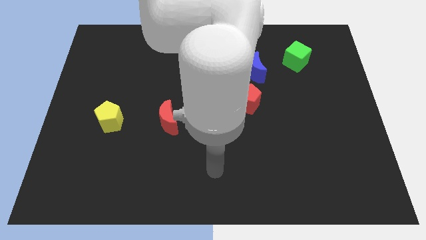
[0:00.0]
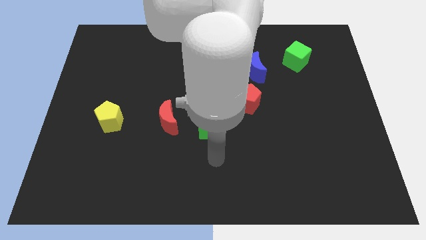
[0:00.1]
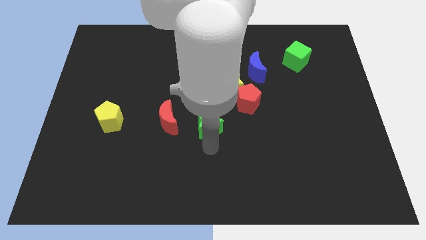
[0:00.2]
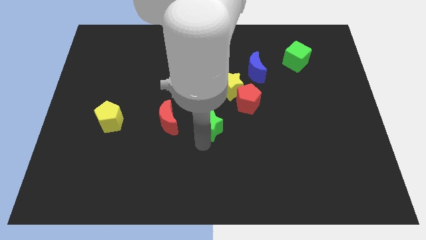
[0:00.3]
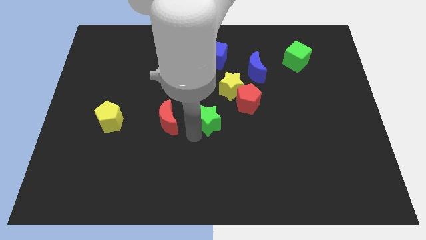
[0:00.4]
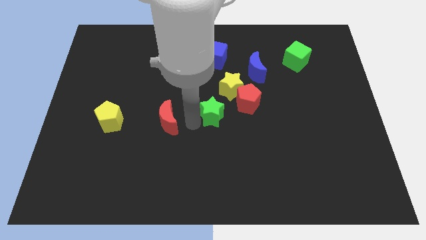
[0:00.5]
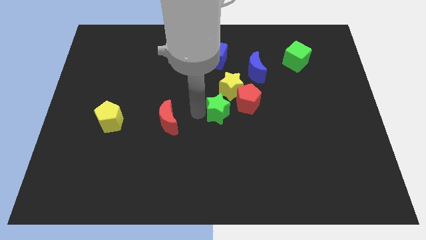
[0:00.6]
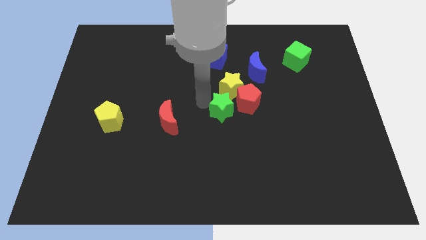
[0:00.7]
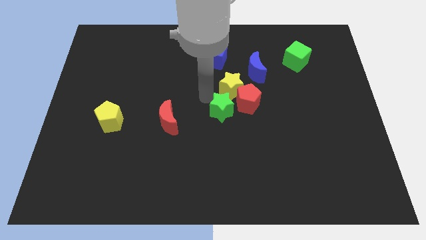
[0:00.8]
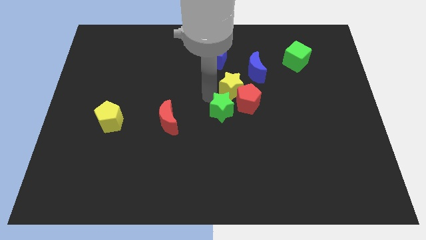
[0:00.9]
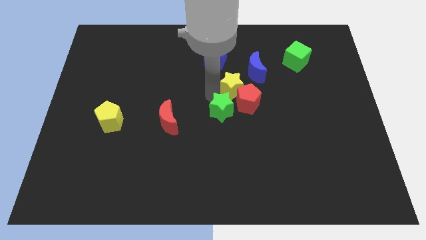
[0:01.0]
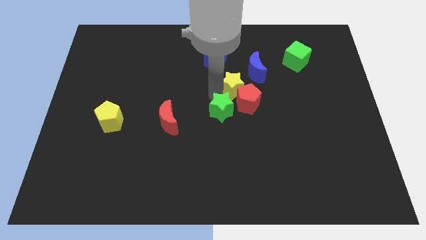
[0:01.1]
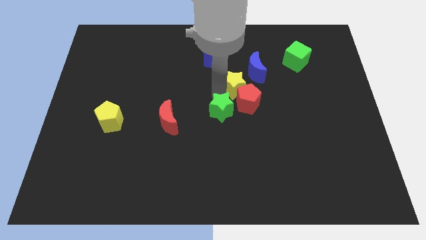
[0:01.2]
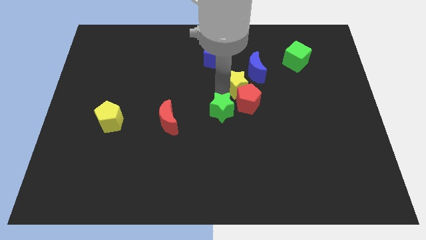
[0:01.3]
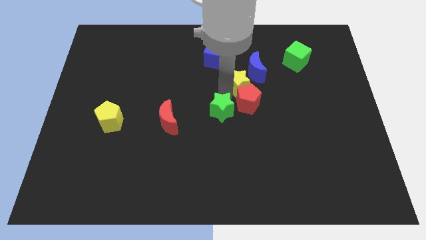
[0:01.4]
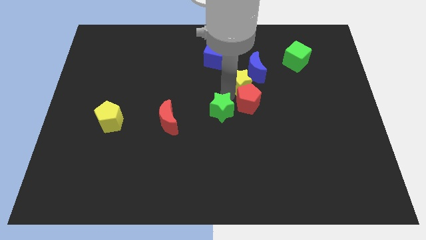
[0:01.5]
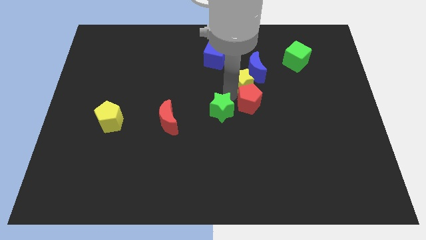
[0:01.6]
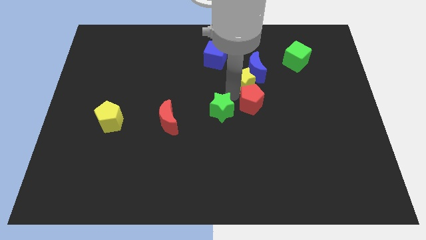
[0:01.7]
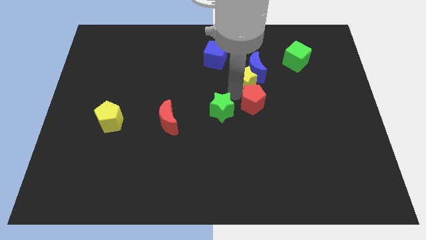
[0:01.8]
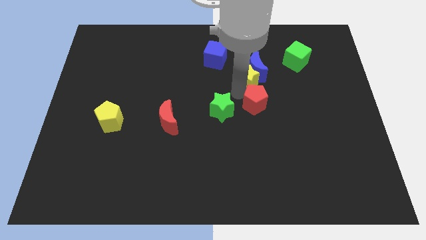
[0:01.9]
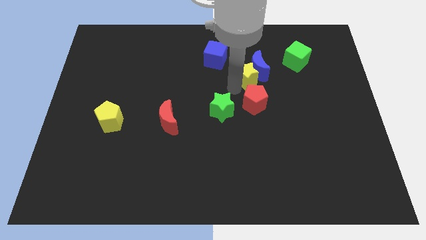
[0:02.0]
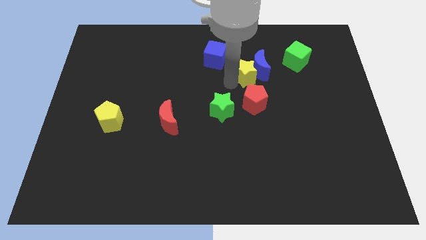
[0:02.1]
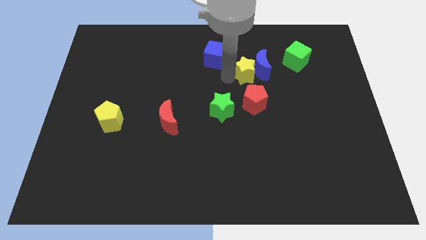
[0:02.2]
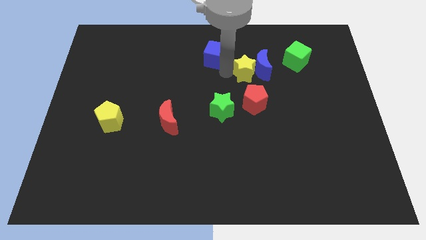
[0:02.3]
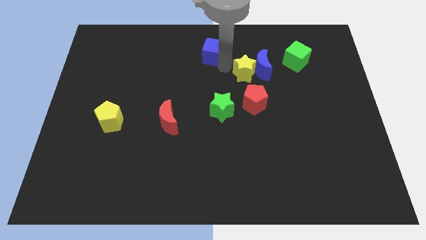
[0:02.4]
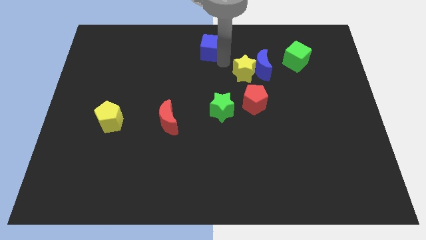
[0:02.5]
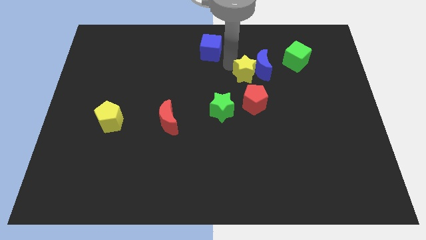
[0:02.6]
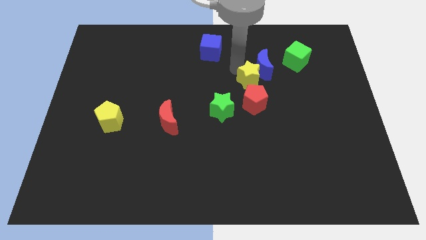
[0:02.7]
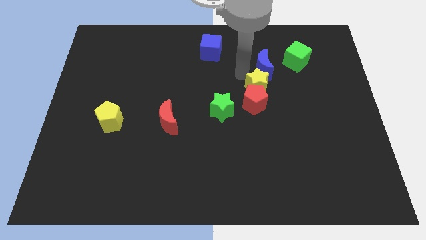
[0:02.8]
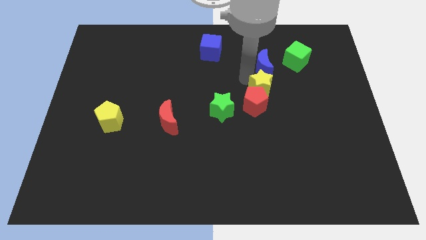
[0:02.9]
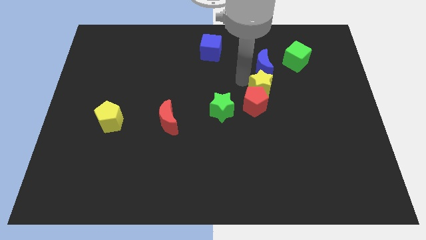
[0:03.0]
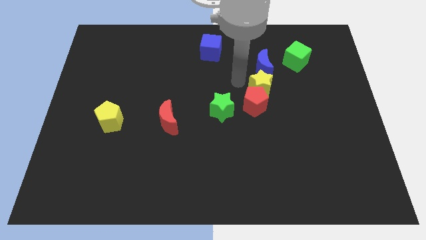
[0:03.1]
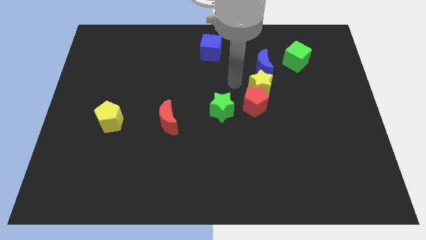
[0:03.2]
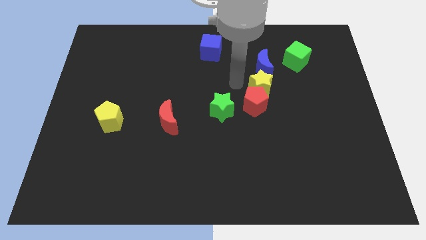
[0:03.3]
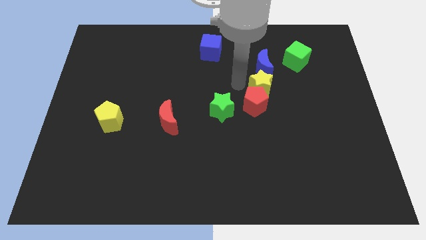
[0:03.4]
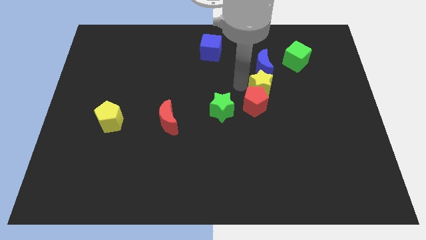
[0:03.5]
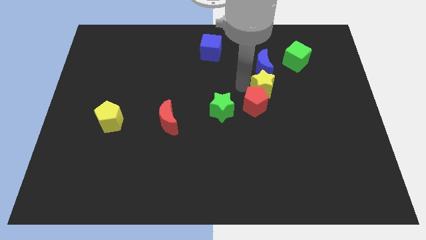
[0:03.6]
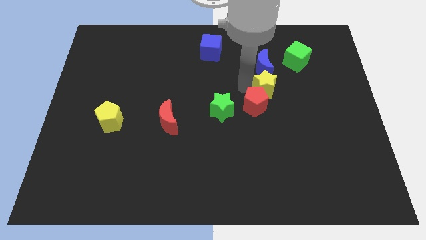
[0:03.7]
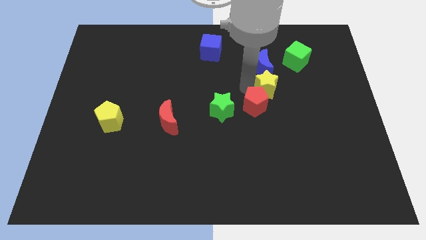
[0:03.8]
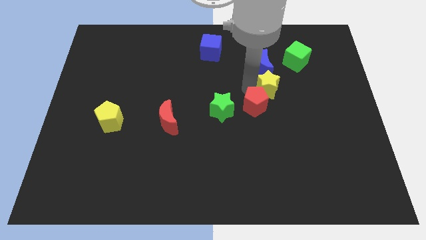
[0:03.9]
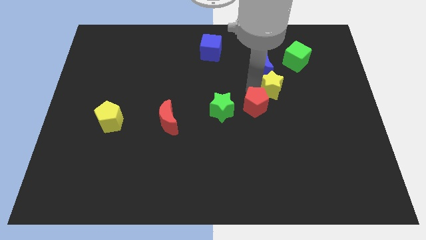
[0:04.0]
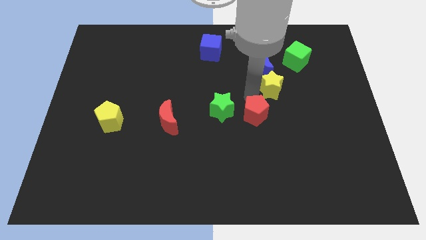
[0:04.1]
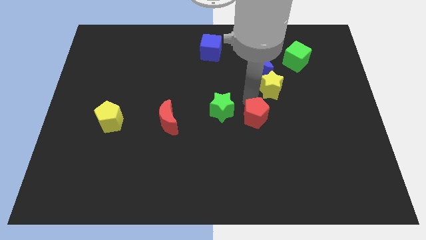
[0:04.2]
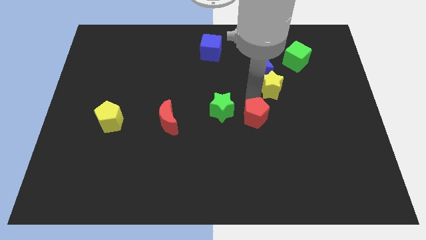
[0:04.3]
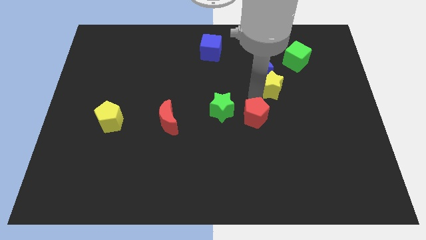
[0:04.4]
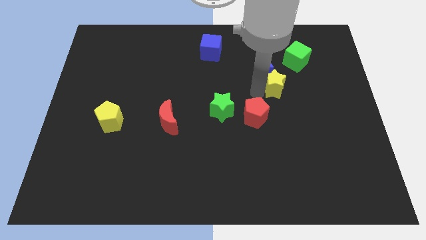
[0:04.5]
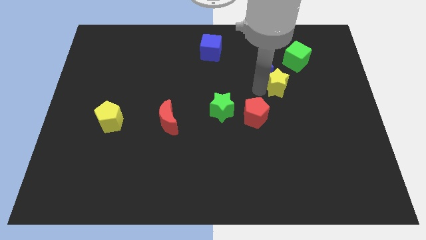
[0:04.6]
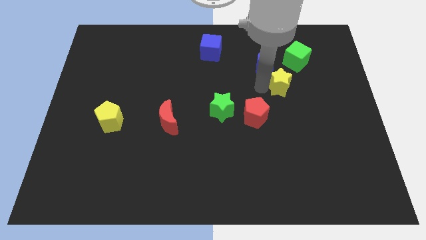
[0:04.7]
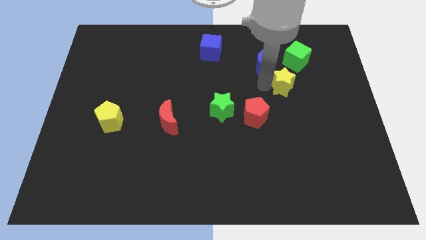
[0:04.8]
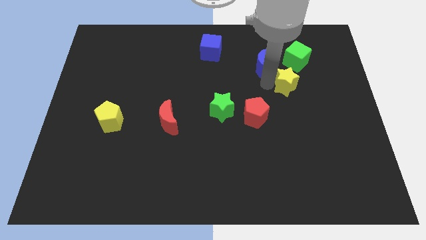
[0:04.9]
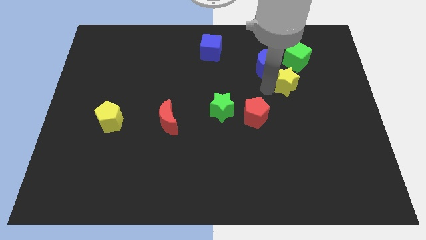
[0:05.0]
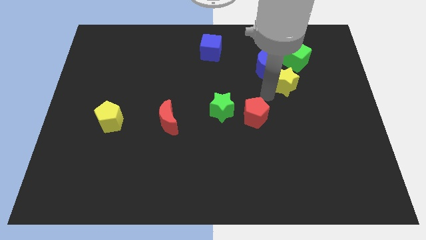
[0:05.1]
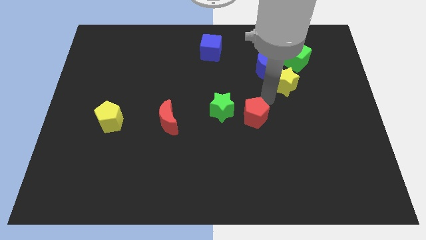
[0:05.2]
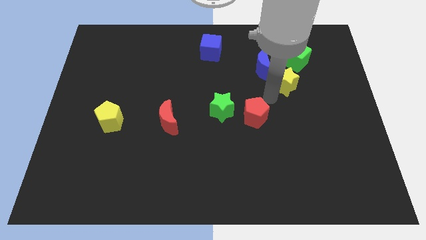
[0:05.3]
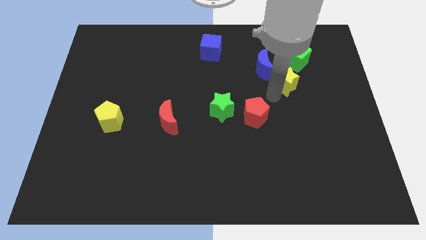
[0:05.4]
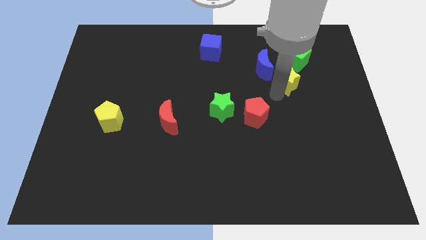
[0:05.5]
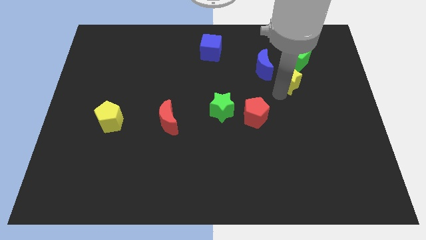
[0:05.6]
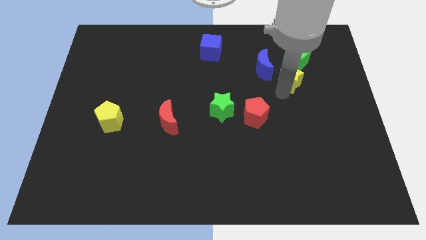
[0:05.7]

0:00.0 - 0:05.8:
slide the yellow star to the right side of the blue moon

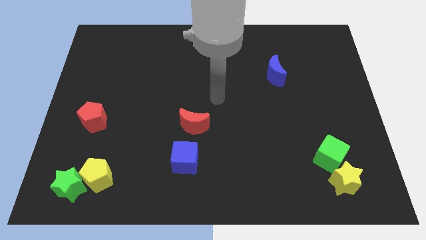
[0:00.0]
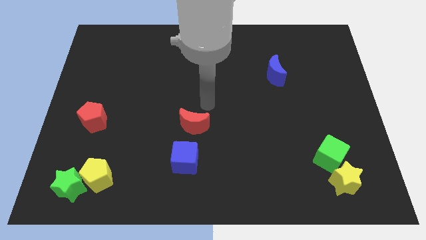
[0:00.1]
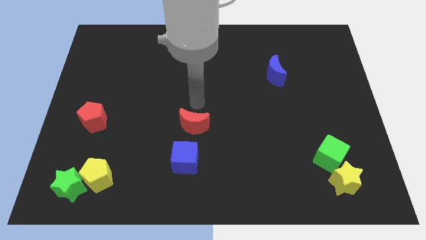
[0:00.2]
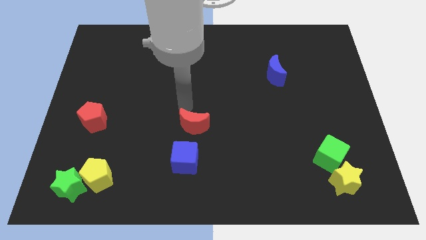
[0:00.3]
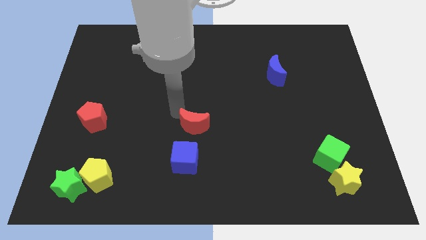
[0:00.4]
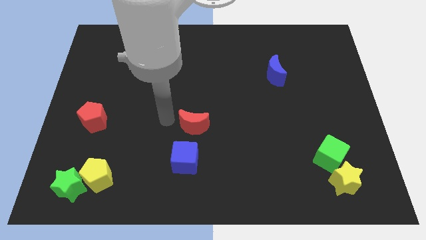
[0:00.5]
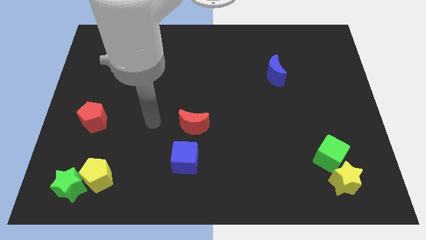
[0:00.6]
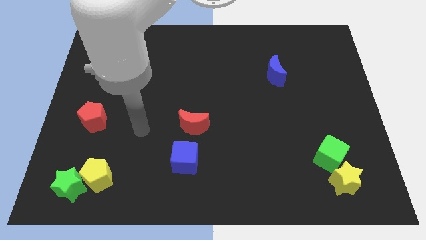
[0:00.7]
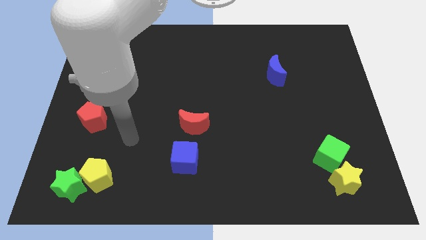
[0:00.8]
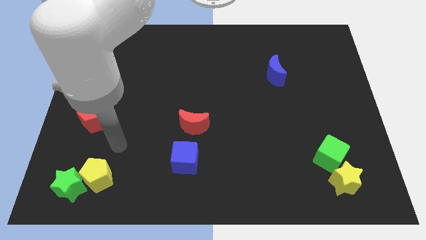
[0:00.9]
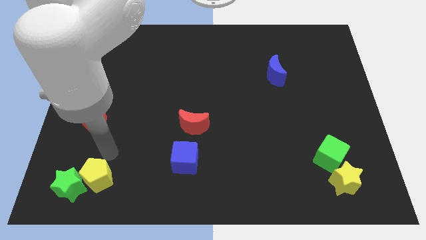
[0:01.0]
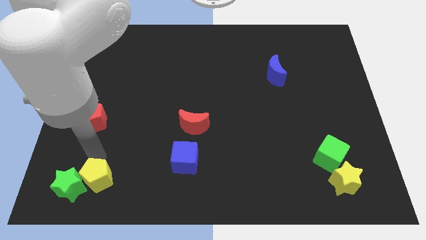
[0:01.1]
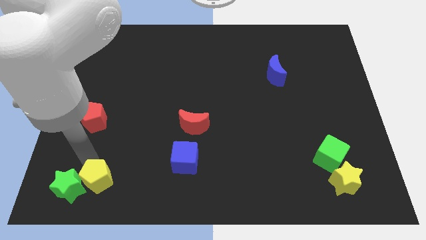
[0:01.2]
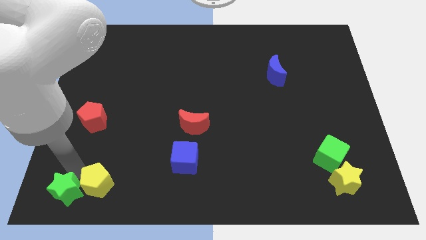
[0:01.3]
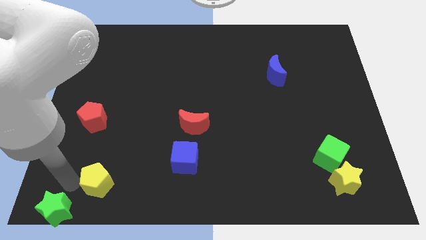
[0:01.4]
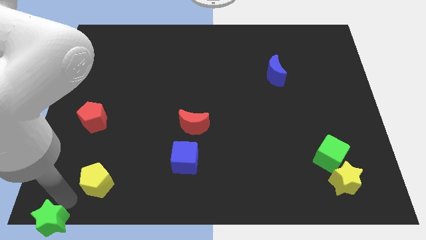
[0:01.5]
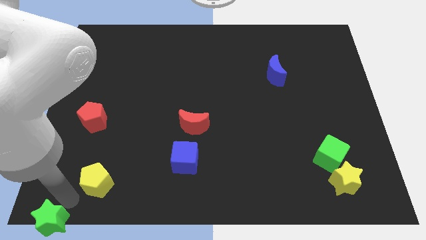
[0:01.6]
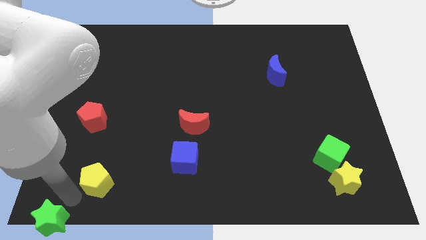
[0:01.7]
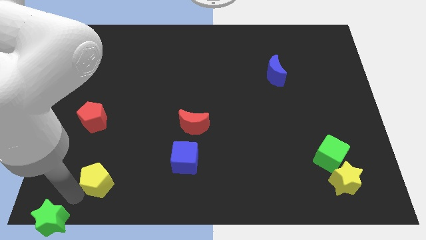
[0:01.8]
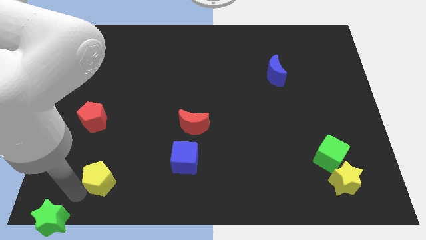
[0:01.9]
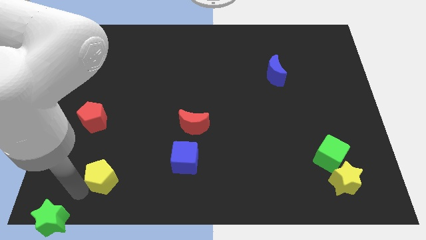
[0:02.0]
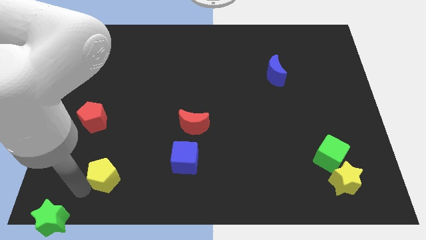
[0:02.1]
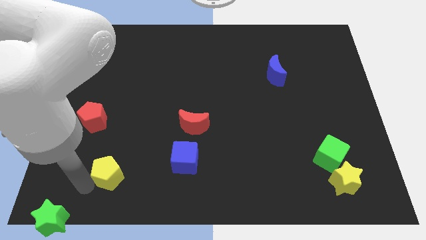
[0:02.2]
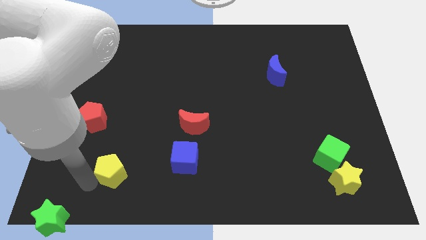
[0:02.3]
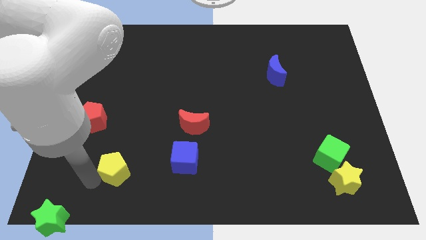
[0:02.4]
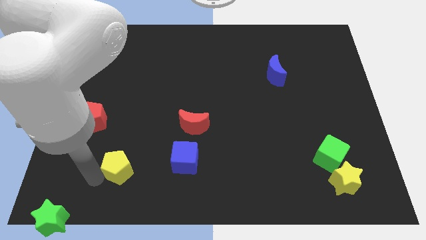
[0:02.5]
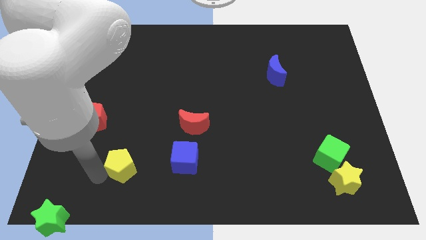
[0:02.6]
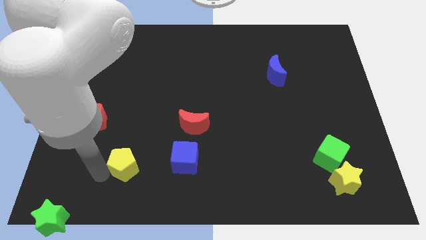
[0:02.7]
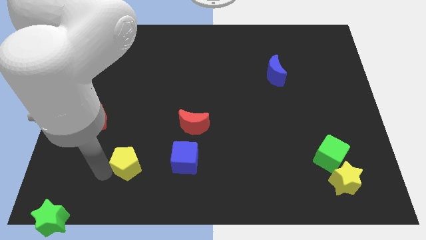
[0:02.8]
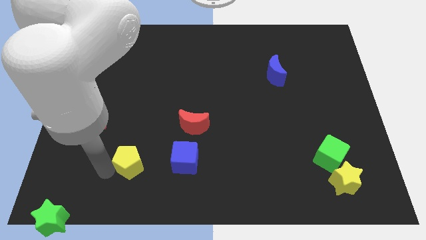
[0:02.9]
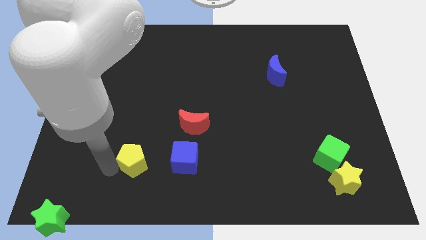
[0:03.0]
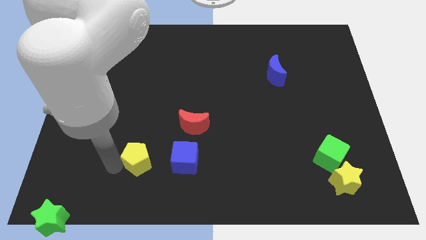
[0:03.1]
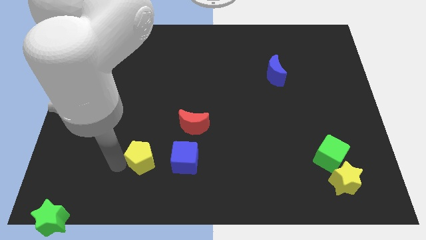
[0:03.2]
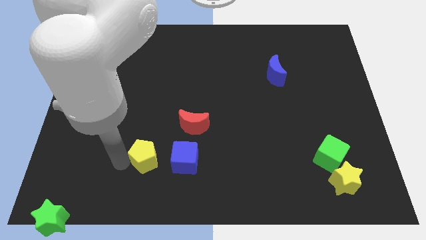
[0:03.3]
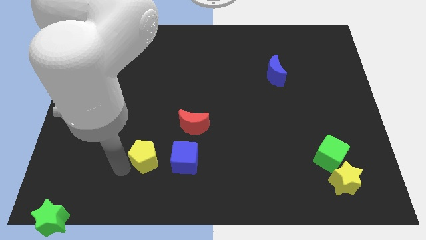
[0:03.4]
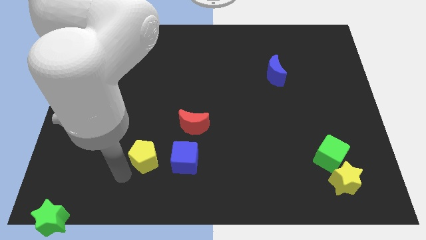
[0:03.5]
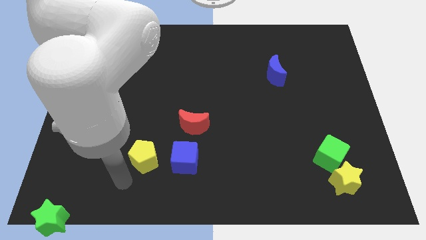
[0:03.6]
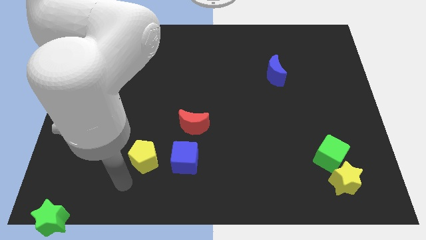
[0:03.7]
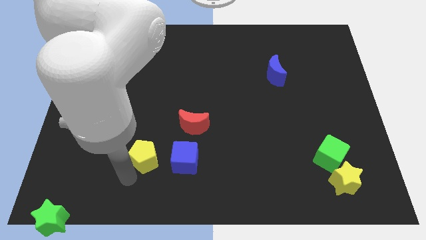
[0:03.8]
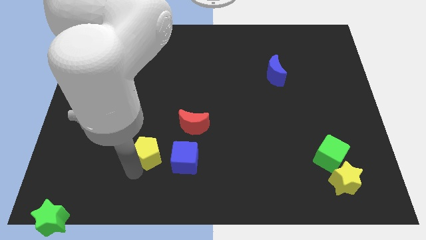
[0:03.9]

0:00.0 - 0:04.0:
put the yellow pentagon to the top left of the blue cube
